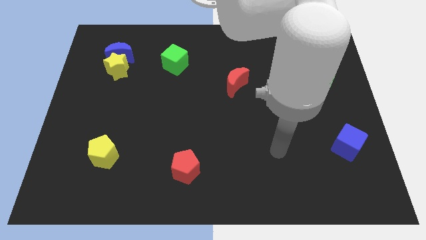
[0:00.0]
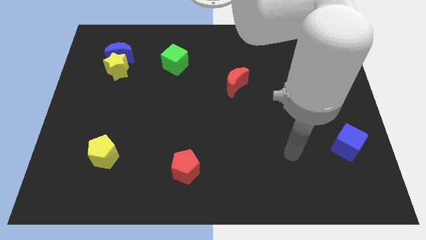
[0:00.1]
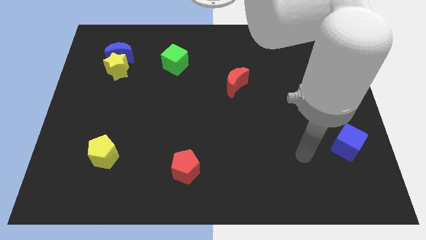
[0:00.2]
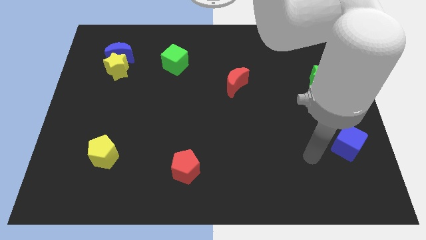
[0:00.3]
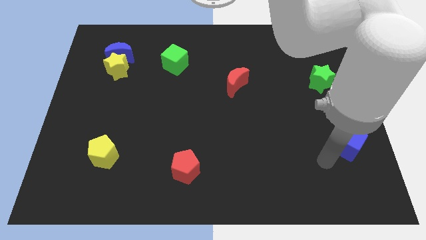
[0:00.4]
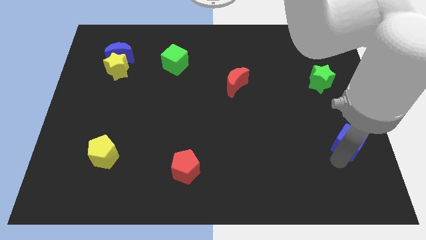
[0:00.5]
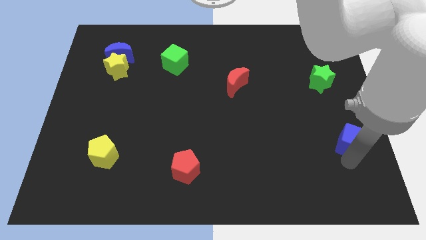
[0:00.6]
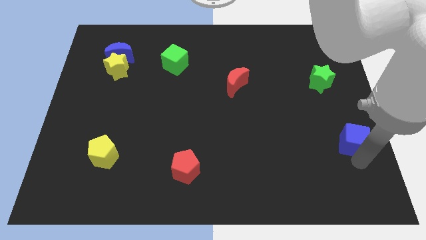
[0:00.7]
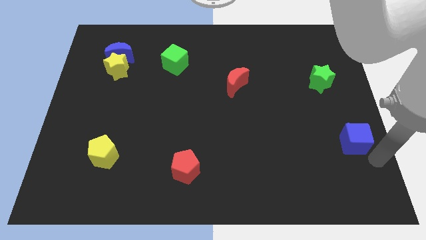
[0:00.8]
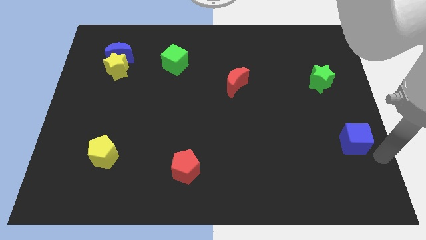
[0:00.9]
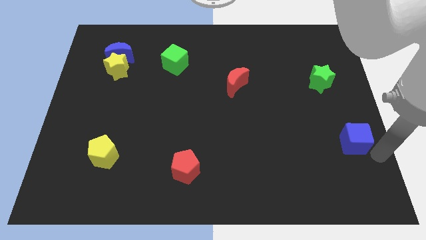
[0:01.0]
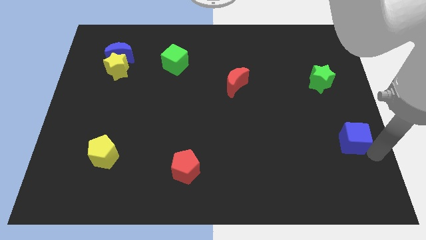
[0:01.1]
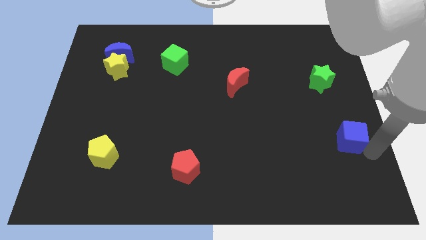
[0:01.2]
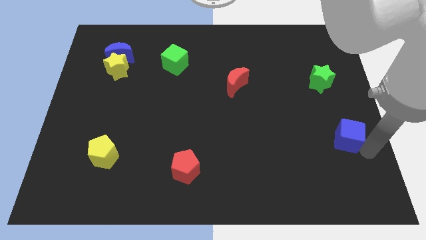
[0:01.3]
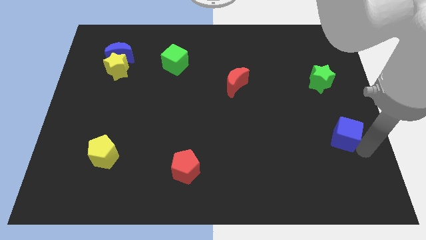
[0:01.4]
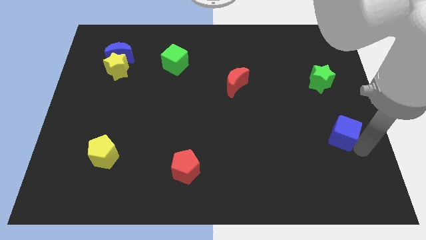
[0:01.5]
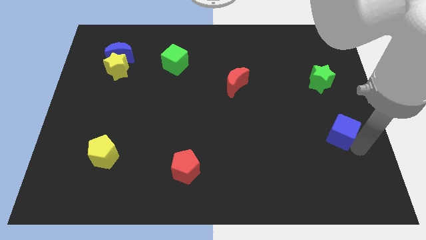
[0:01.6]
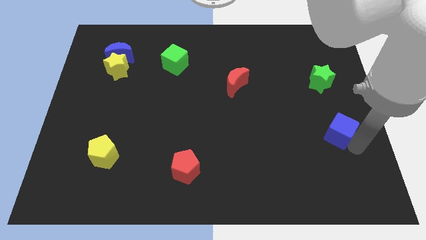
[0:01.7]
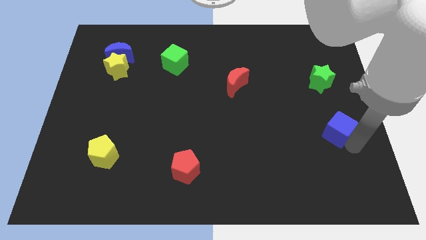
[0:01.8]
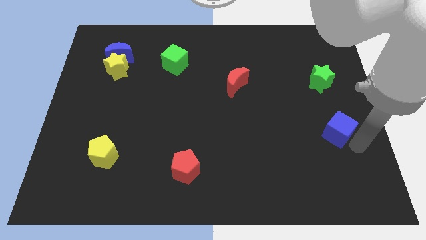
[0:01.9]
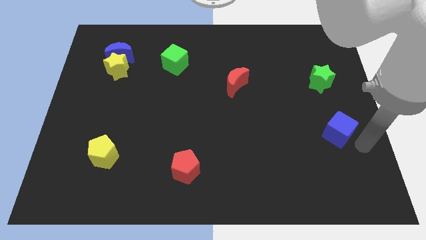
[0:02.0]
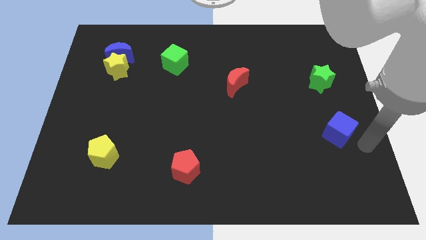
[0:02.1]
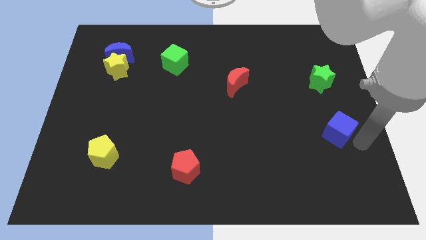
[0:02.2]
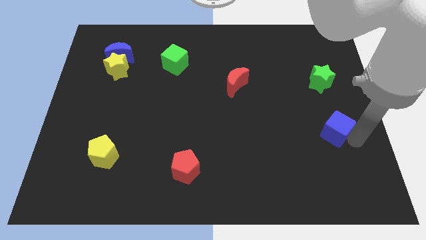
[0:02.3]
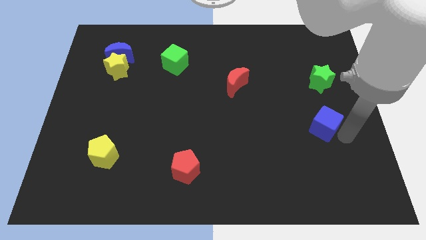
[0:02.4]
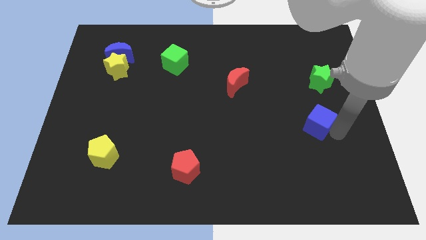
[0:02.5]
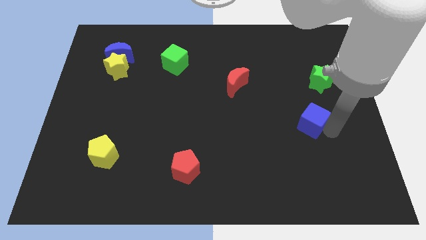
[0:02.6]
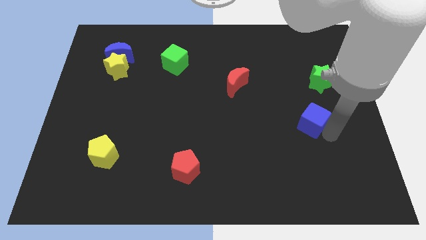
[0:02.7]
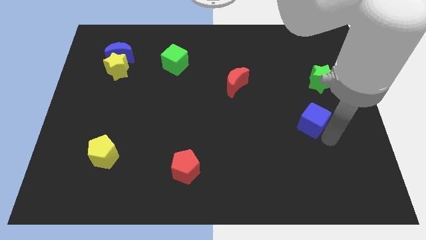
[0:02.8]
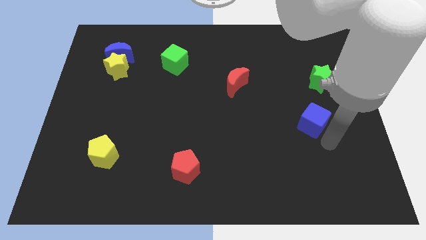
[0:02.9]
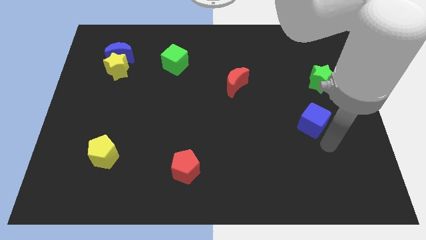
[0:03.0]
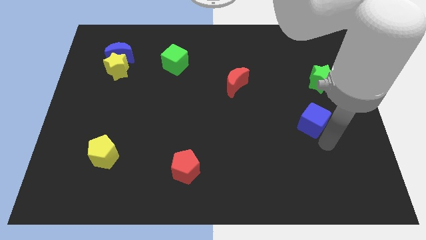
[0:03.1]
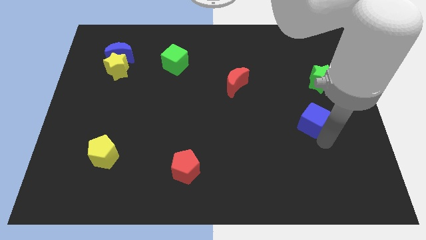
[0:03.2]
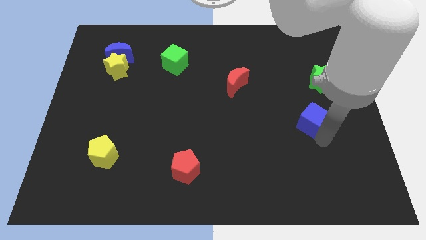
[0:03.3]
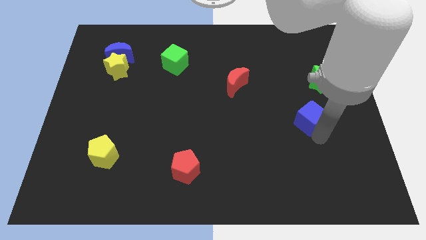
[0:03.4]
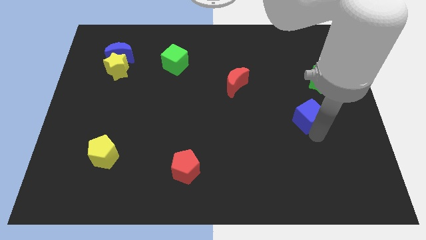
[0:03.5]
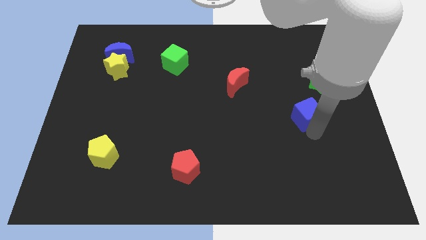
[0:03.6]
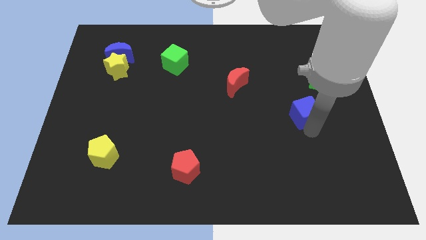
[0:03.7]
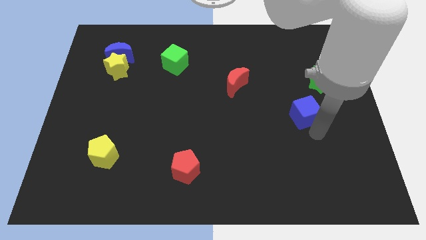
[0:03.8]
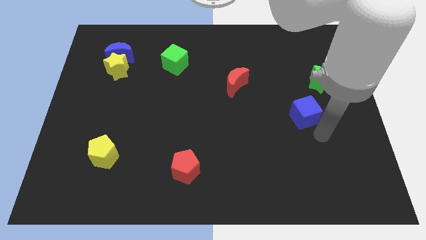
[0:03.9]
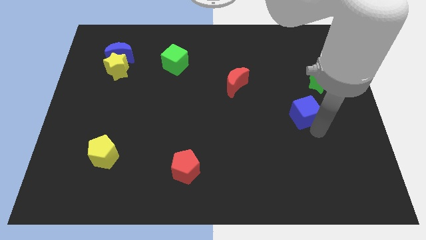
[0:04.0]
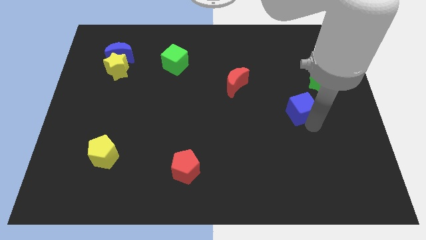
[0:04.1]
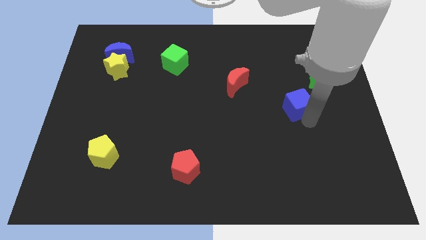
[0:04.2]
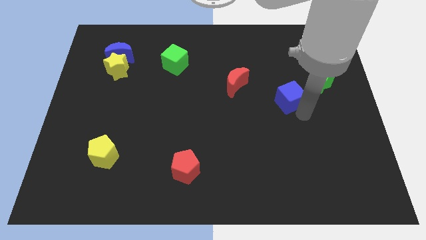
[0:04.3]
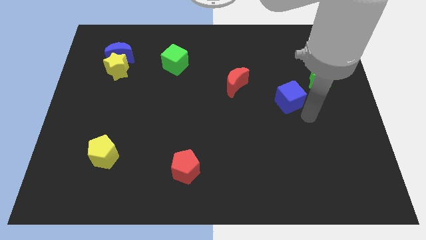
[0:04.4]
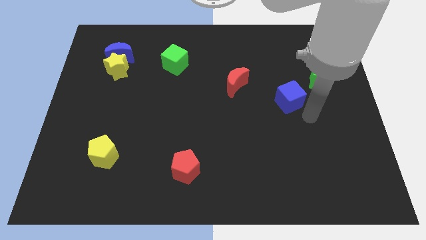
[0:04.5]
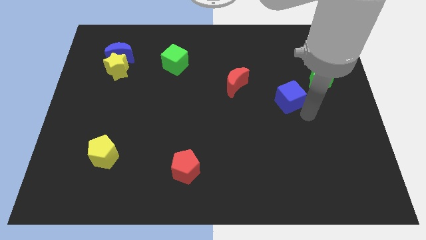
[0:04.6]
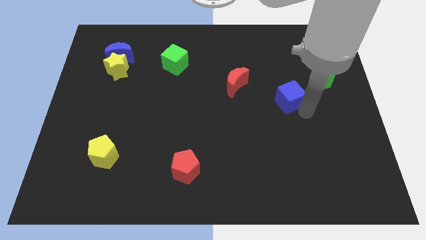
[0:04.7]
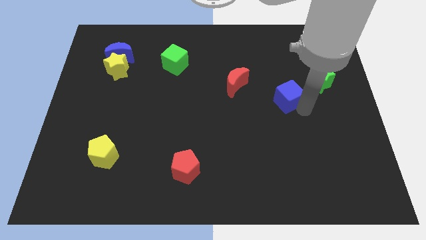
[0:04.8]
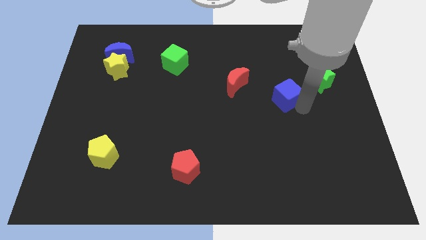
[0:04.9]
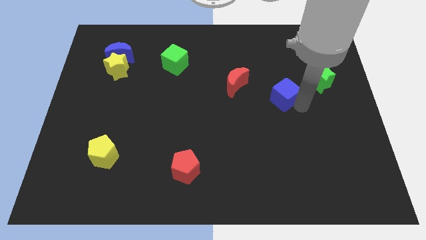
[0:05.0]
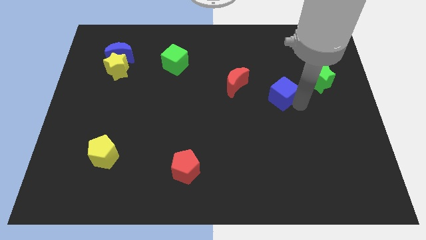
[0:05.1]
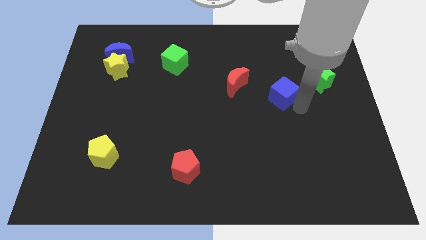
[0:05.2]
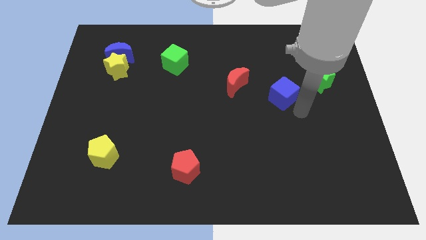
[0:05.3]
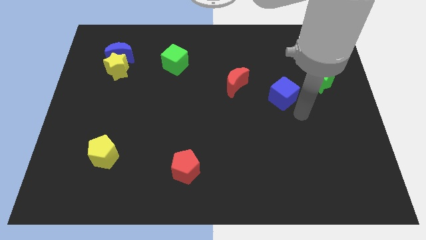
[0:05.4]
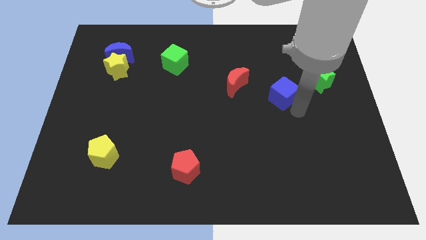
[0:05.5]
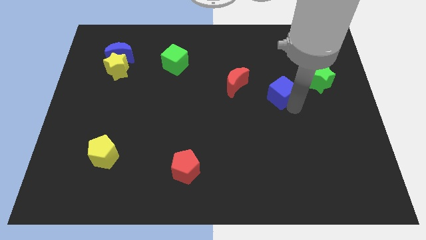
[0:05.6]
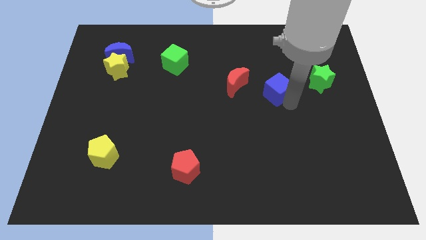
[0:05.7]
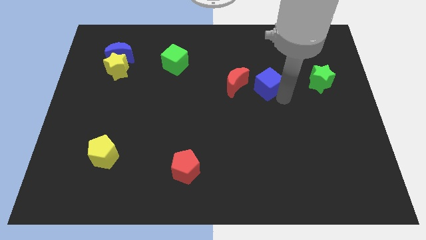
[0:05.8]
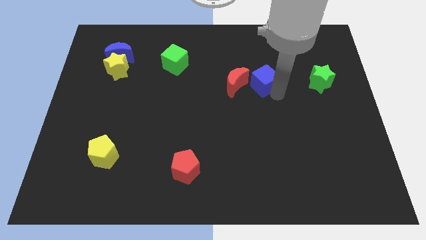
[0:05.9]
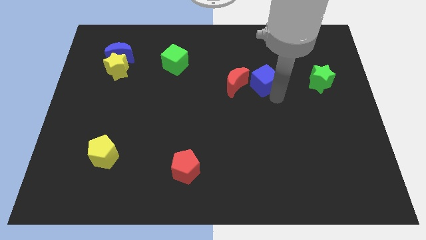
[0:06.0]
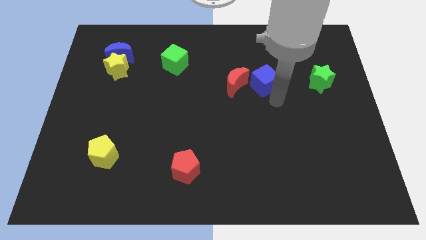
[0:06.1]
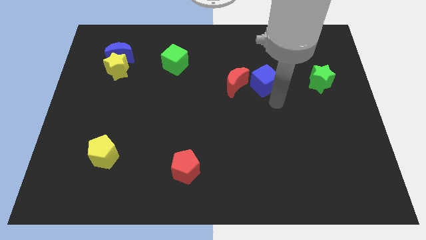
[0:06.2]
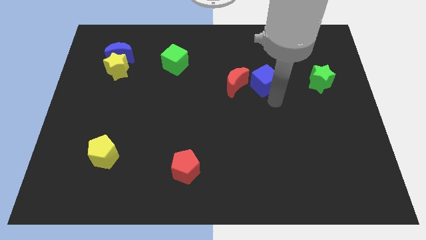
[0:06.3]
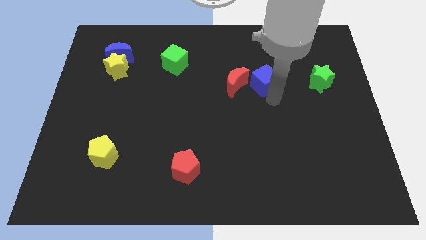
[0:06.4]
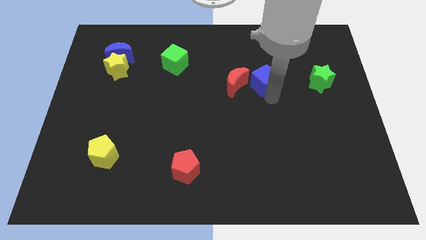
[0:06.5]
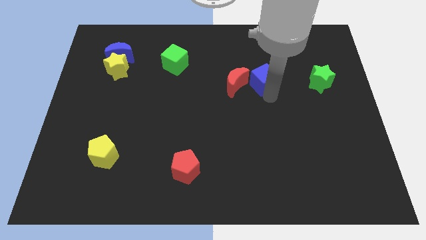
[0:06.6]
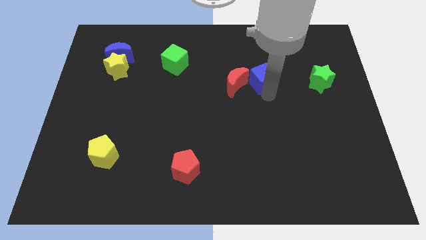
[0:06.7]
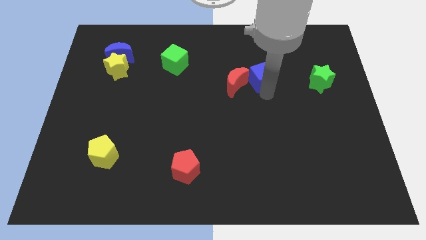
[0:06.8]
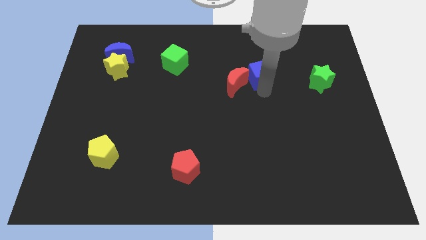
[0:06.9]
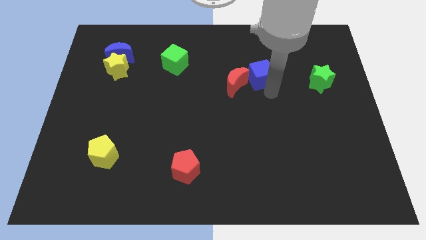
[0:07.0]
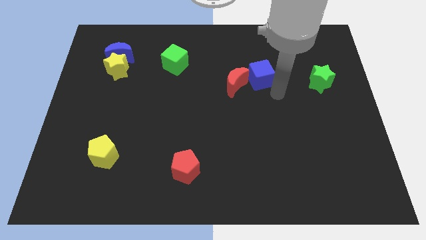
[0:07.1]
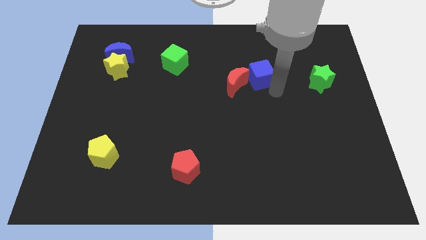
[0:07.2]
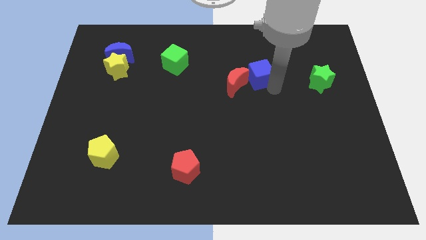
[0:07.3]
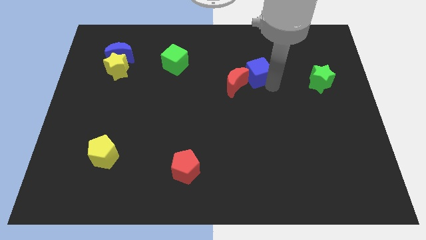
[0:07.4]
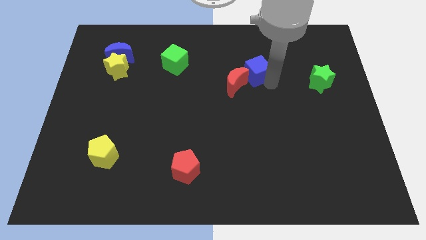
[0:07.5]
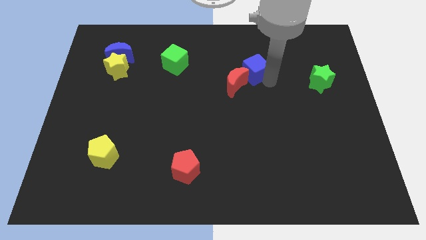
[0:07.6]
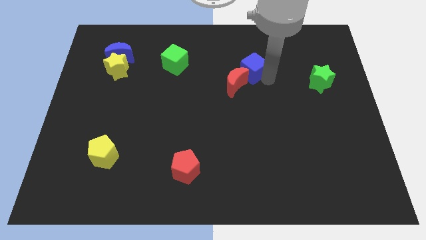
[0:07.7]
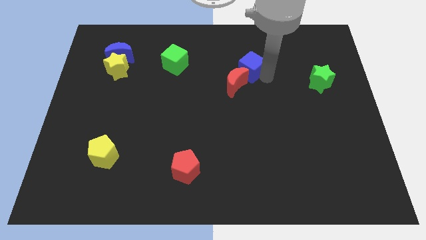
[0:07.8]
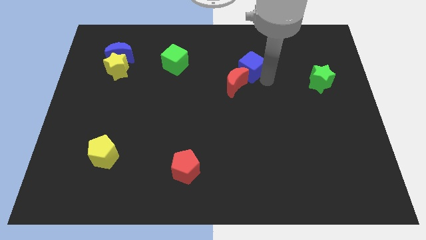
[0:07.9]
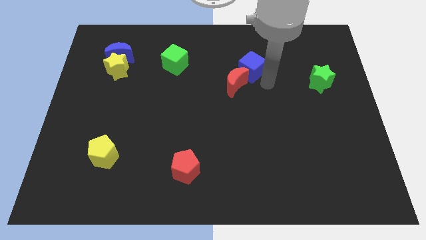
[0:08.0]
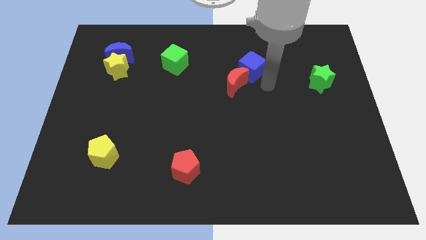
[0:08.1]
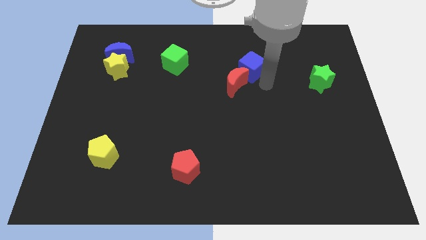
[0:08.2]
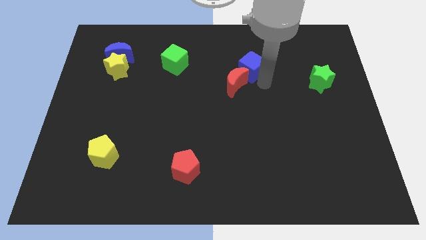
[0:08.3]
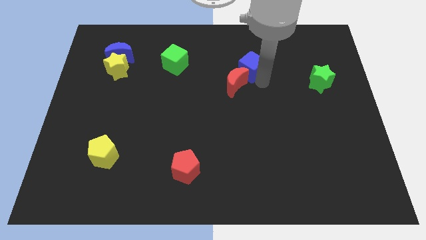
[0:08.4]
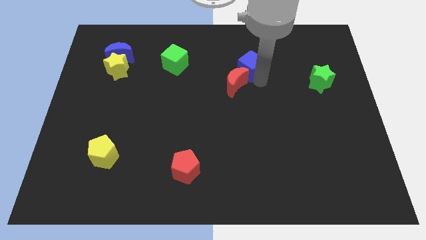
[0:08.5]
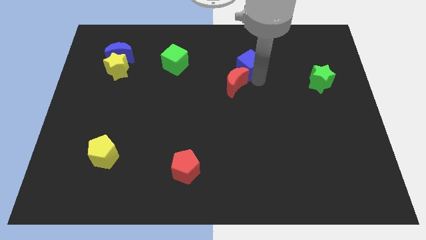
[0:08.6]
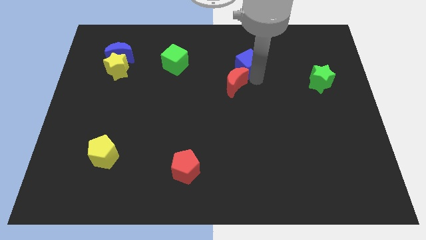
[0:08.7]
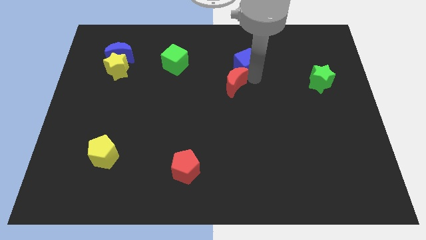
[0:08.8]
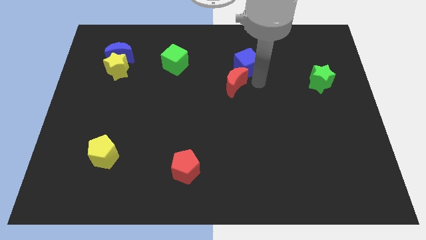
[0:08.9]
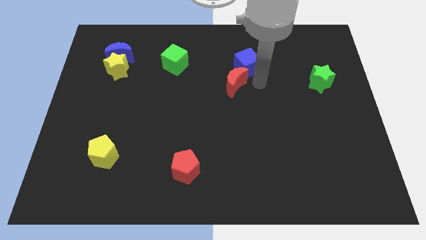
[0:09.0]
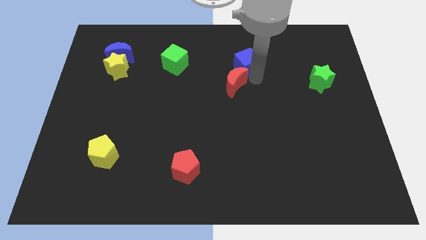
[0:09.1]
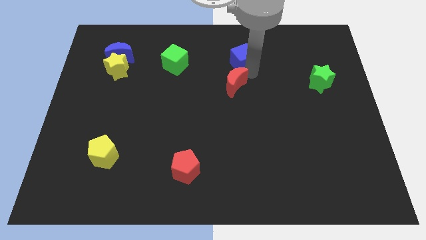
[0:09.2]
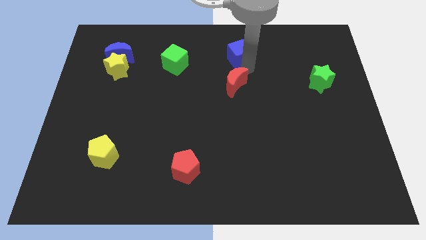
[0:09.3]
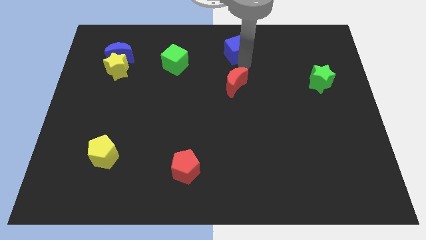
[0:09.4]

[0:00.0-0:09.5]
move the blue cube to the towards your base
